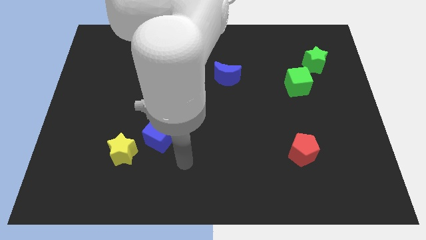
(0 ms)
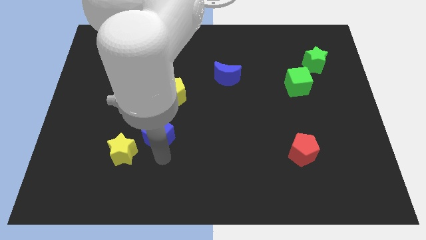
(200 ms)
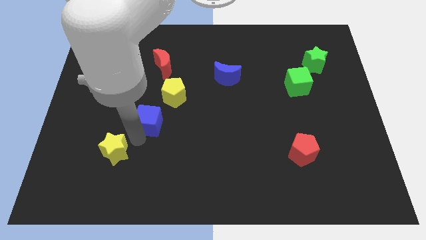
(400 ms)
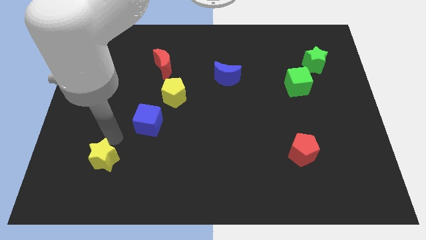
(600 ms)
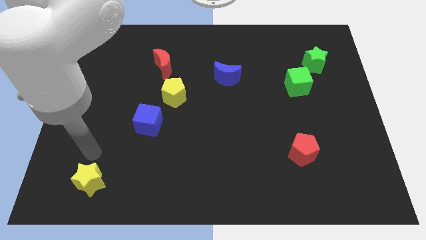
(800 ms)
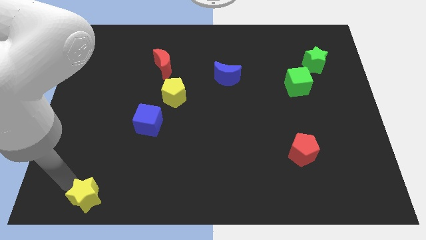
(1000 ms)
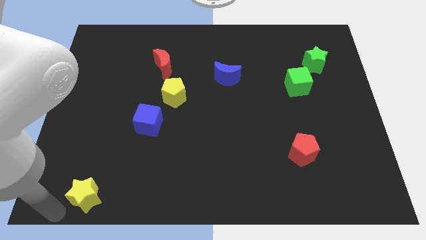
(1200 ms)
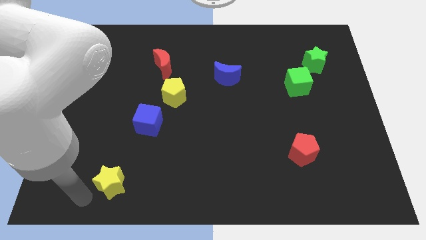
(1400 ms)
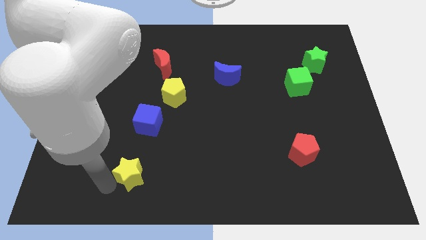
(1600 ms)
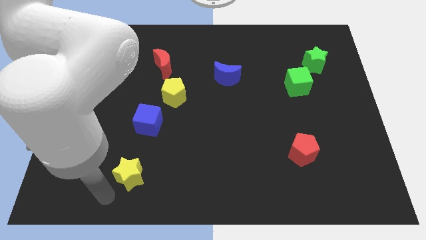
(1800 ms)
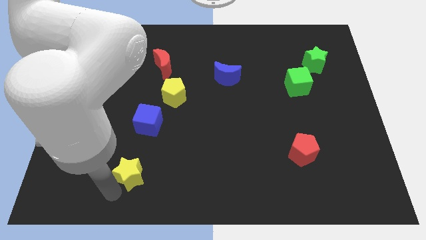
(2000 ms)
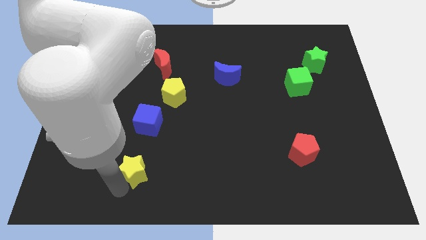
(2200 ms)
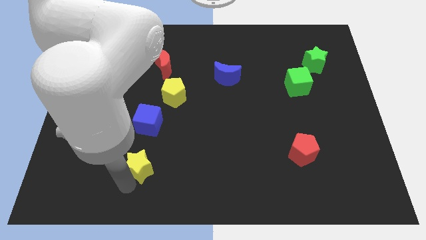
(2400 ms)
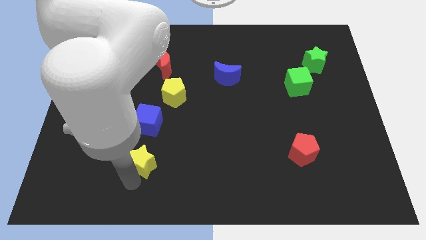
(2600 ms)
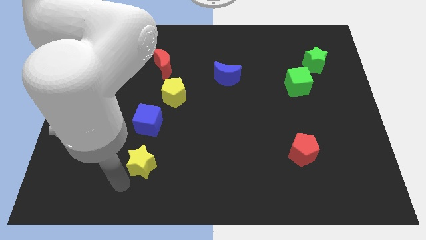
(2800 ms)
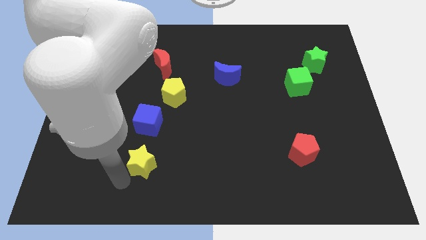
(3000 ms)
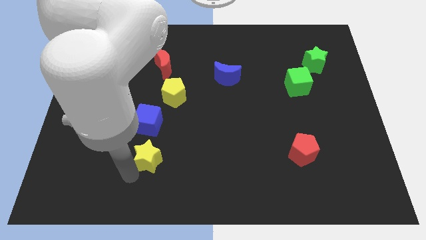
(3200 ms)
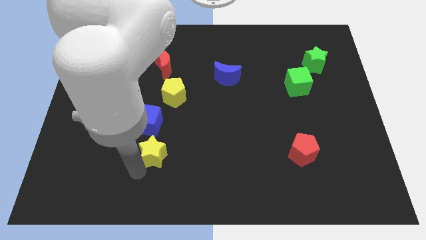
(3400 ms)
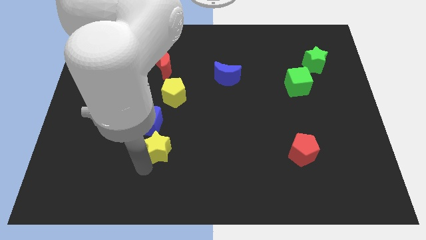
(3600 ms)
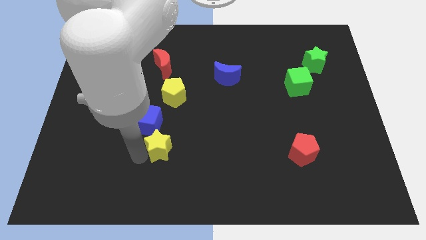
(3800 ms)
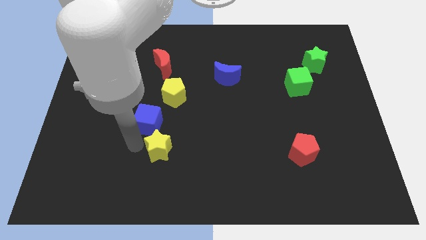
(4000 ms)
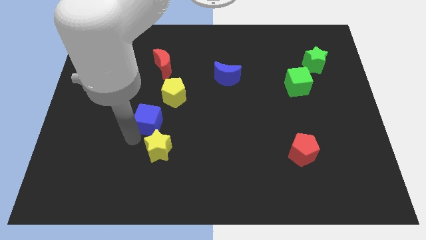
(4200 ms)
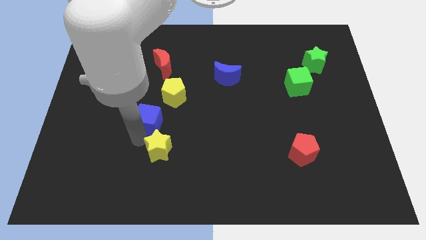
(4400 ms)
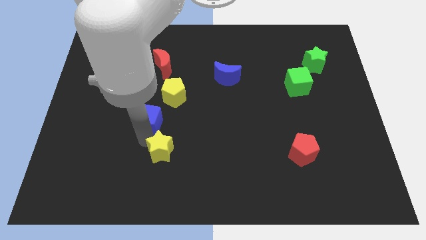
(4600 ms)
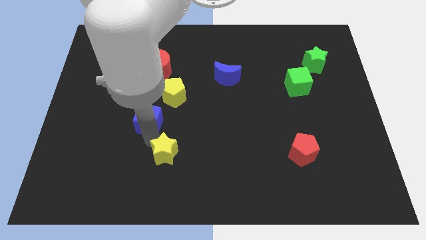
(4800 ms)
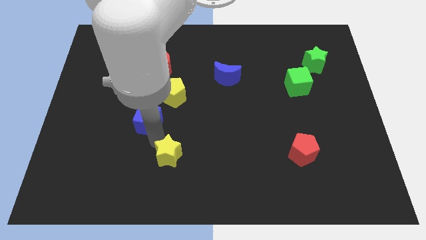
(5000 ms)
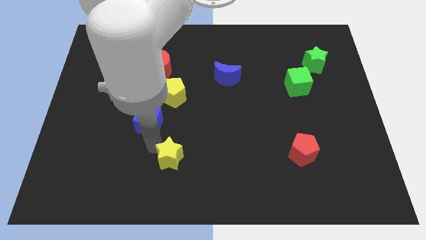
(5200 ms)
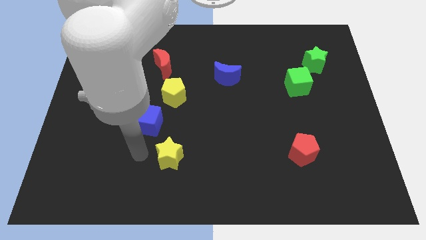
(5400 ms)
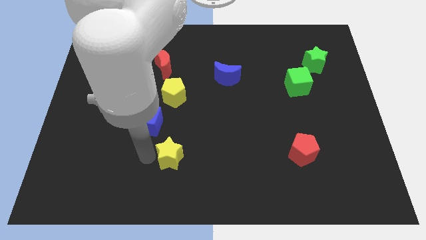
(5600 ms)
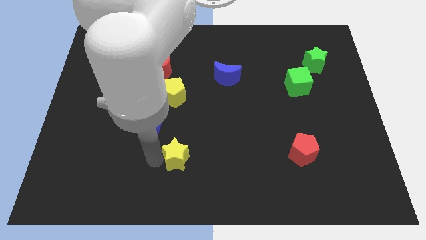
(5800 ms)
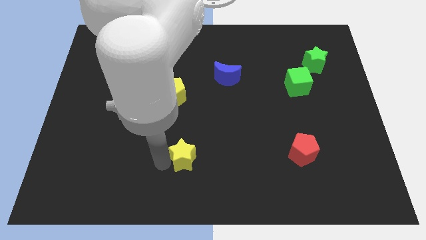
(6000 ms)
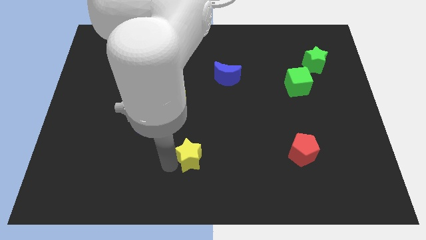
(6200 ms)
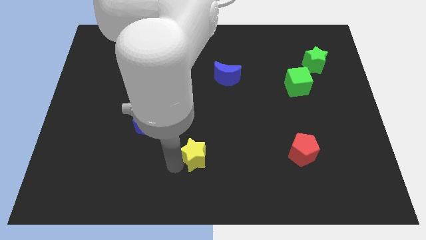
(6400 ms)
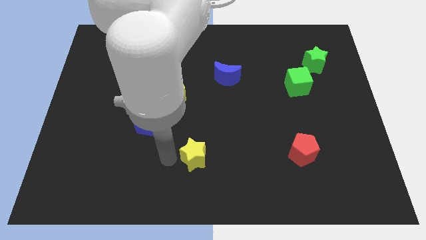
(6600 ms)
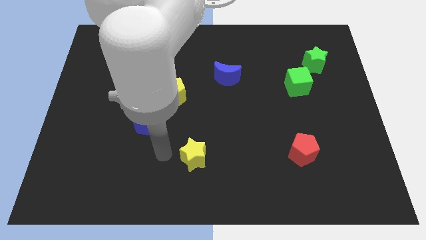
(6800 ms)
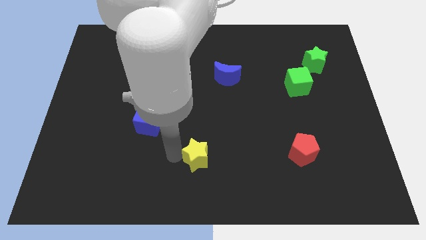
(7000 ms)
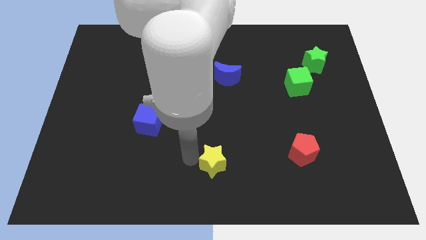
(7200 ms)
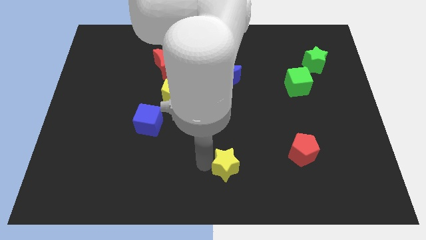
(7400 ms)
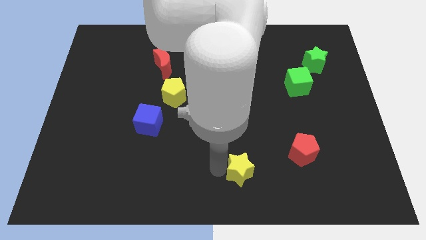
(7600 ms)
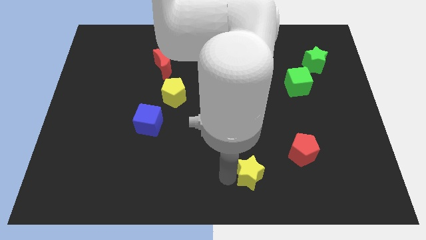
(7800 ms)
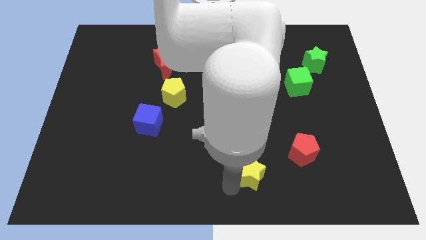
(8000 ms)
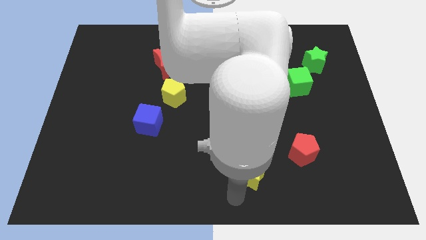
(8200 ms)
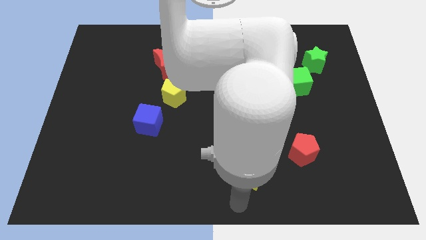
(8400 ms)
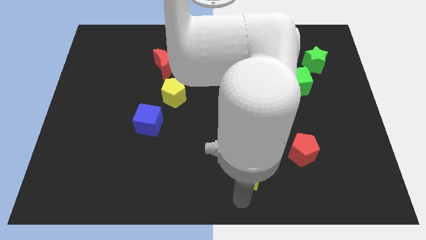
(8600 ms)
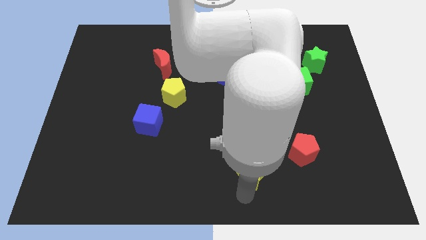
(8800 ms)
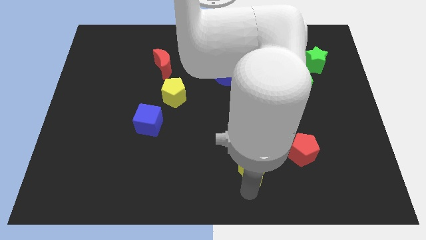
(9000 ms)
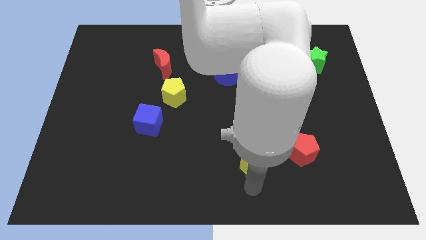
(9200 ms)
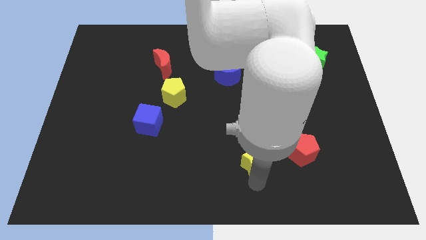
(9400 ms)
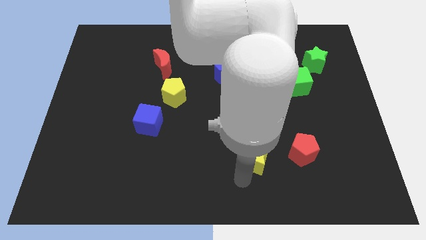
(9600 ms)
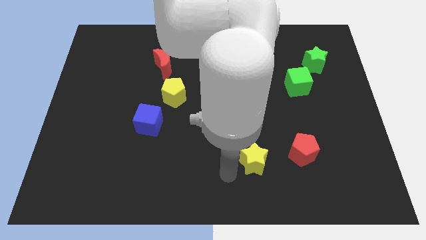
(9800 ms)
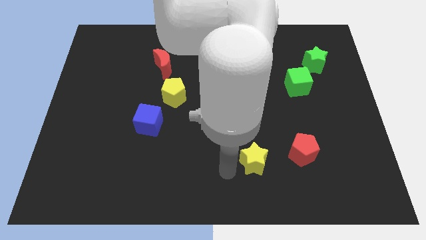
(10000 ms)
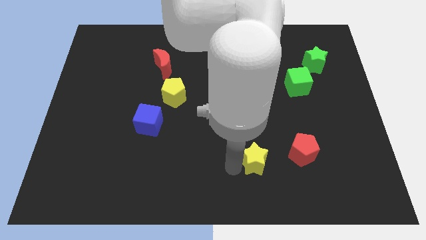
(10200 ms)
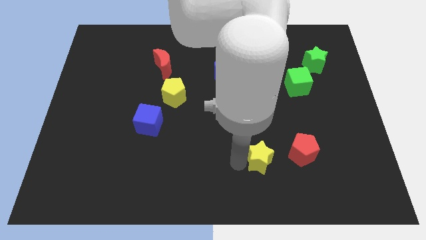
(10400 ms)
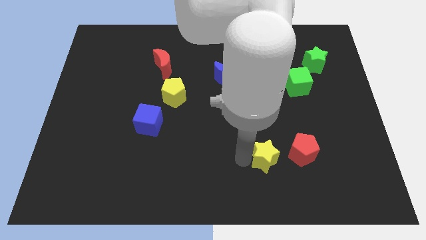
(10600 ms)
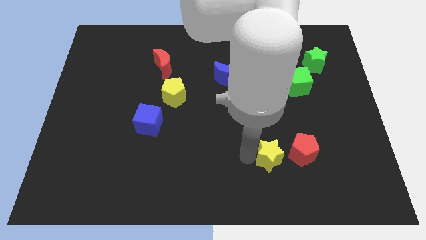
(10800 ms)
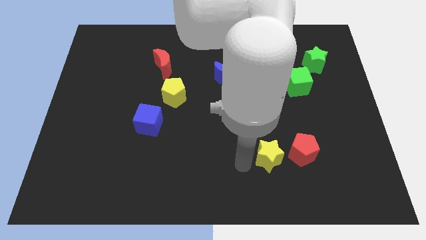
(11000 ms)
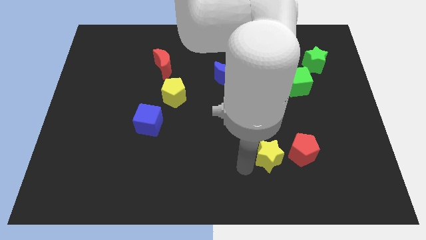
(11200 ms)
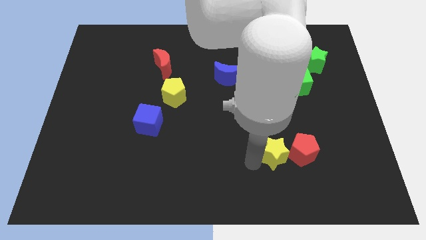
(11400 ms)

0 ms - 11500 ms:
move the yellow star to the red pentagon

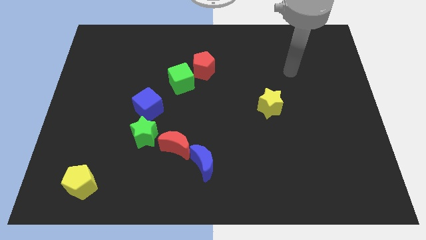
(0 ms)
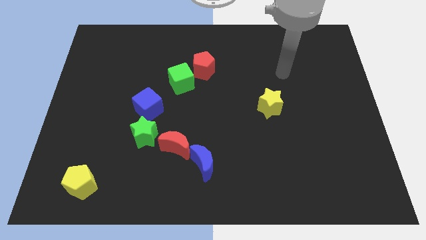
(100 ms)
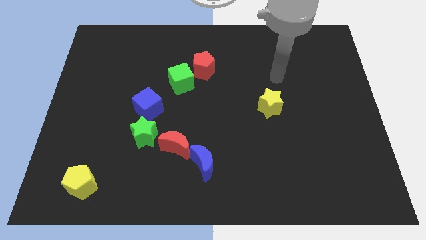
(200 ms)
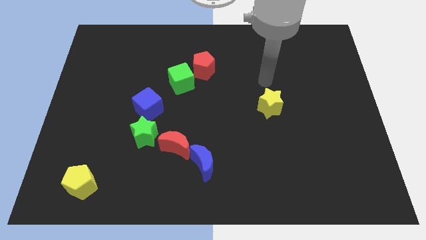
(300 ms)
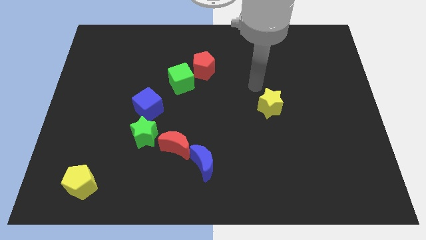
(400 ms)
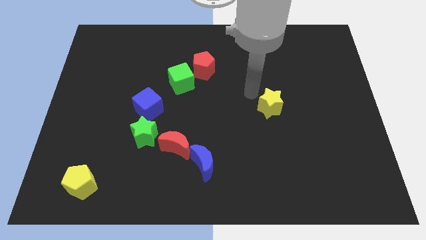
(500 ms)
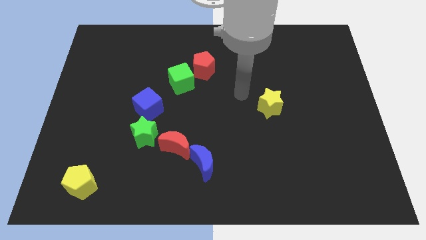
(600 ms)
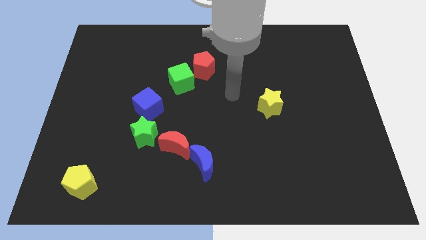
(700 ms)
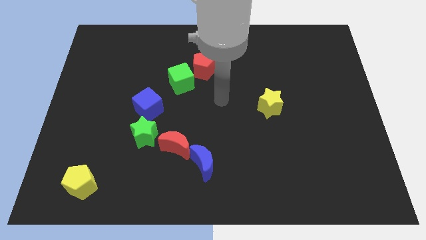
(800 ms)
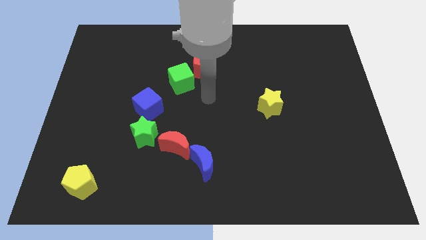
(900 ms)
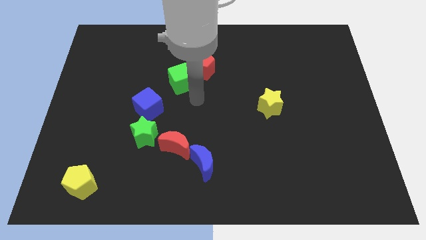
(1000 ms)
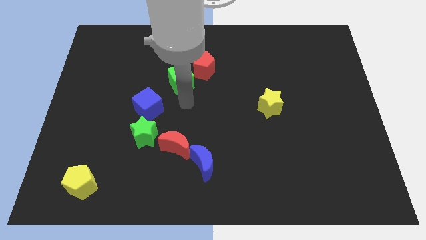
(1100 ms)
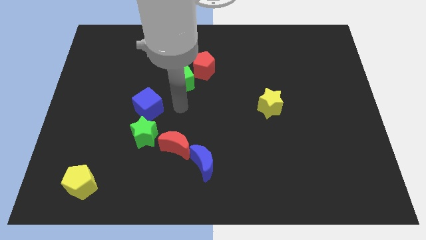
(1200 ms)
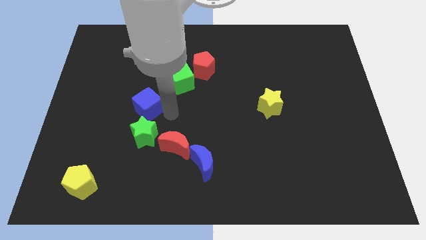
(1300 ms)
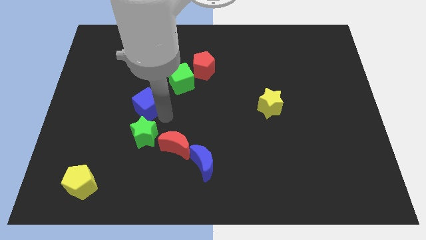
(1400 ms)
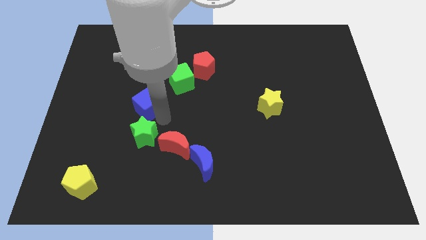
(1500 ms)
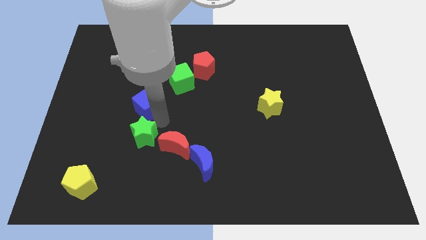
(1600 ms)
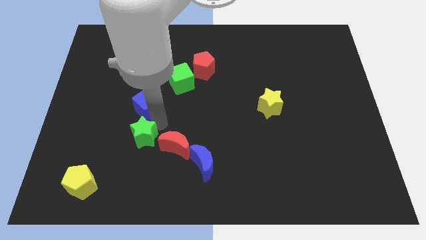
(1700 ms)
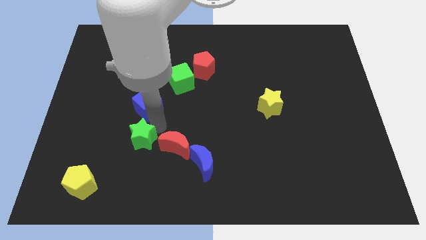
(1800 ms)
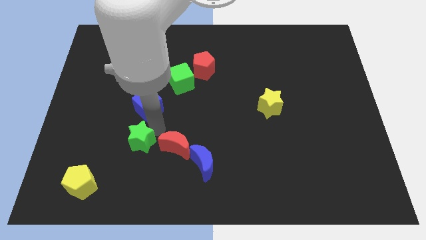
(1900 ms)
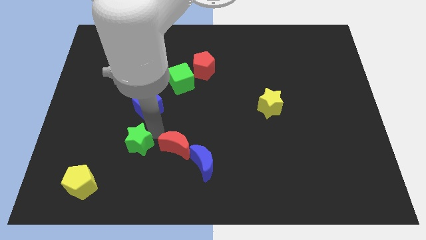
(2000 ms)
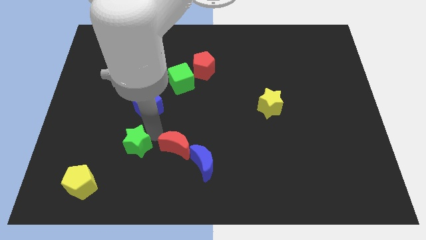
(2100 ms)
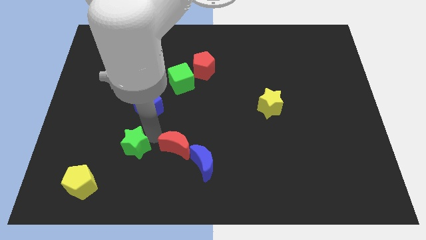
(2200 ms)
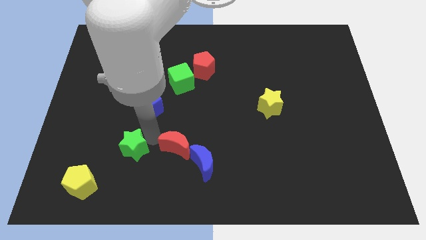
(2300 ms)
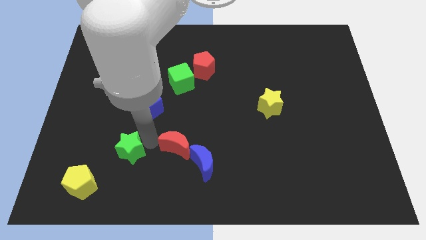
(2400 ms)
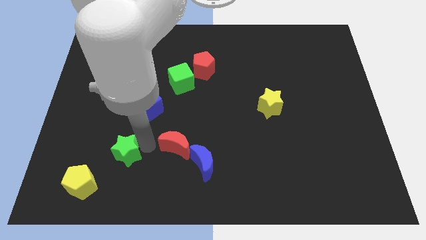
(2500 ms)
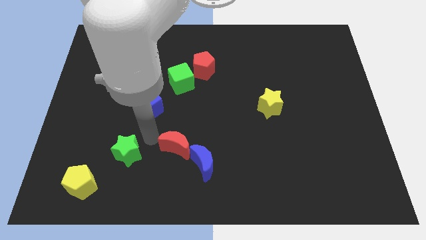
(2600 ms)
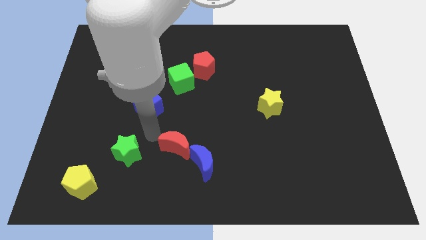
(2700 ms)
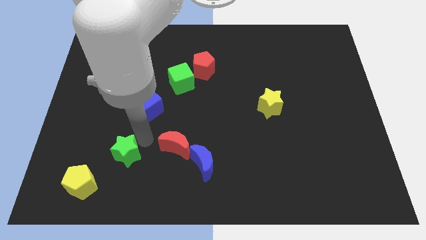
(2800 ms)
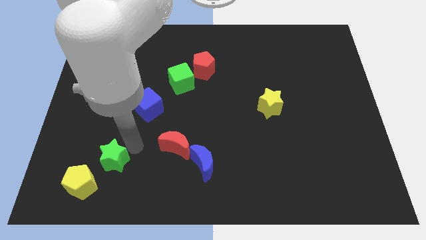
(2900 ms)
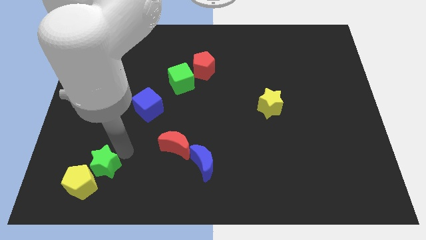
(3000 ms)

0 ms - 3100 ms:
slide the green star next to the yellow pentagon
